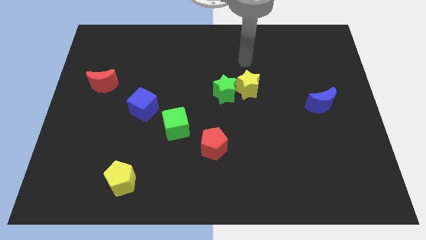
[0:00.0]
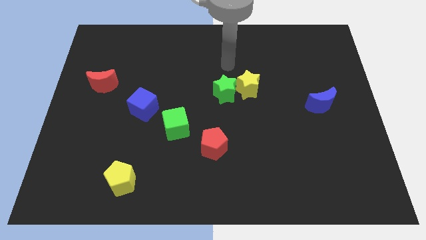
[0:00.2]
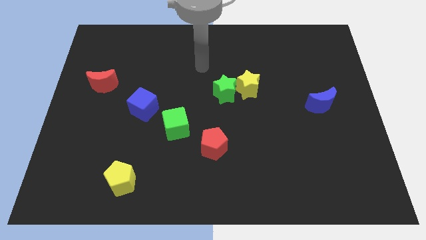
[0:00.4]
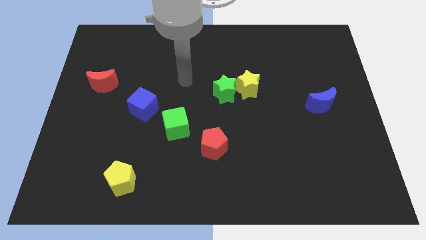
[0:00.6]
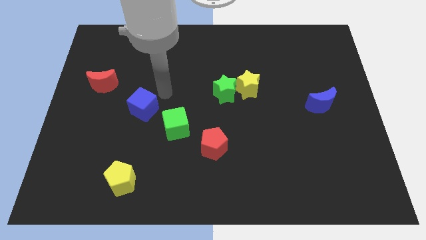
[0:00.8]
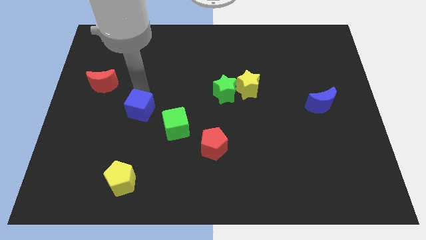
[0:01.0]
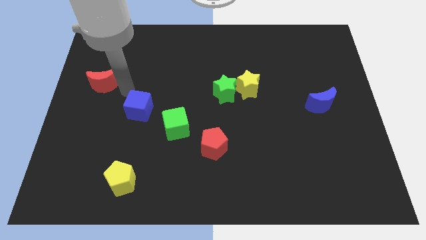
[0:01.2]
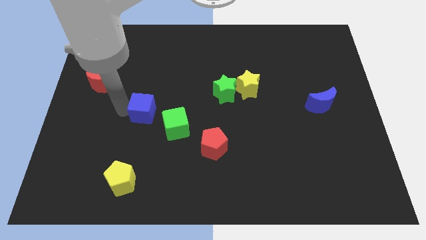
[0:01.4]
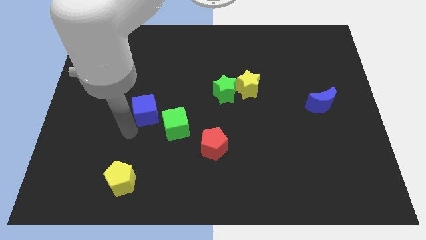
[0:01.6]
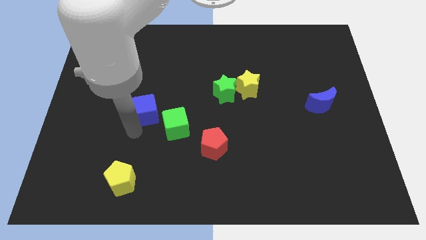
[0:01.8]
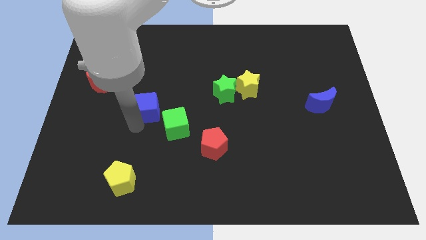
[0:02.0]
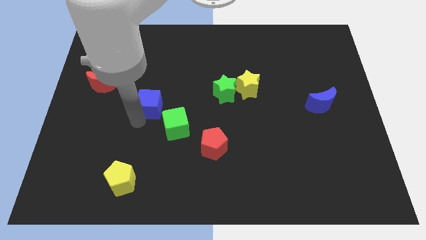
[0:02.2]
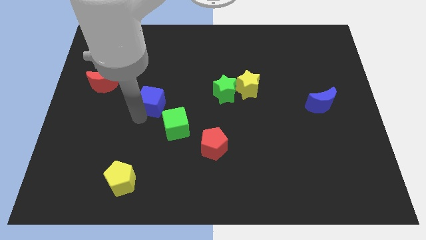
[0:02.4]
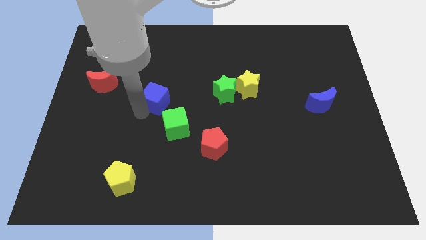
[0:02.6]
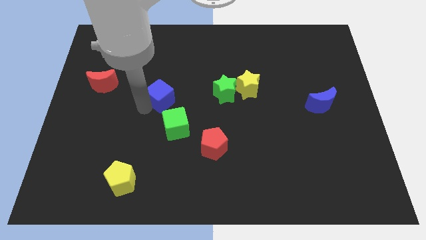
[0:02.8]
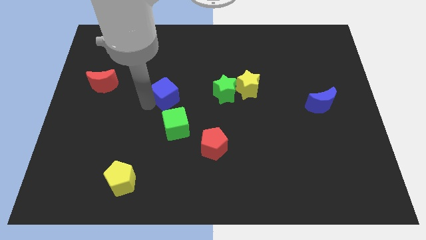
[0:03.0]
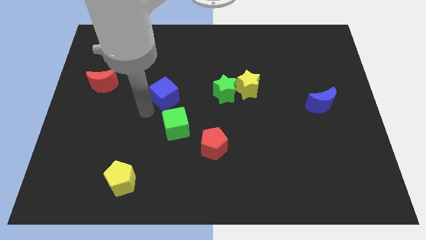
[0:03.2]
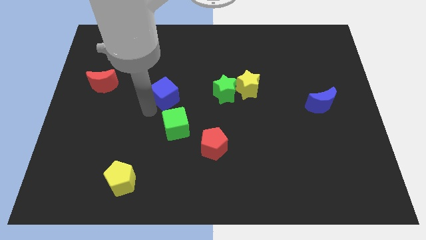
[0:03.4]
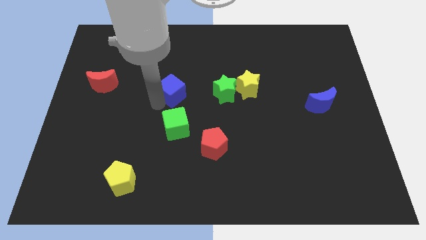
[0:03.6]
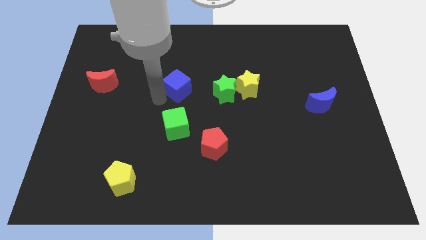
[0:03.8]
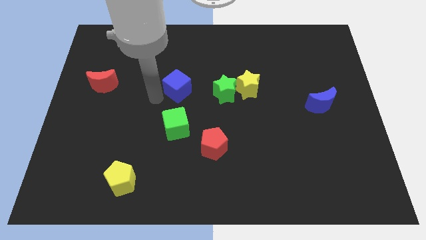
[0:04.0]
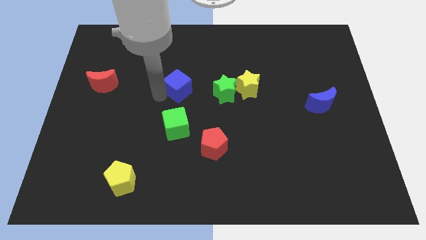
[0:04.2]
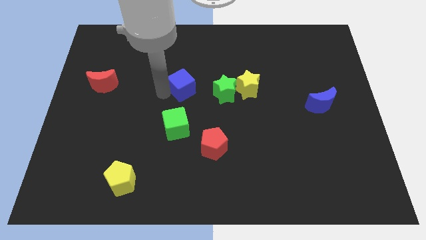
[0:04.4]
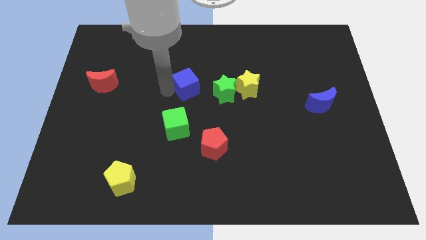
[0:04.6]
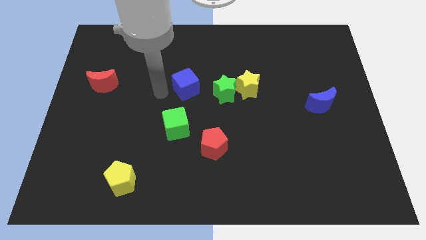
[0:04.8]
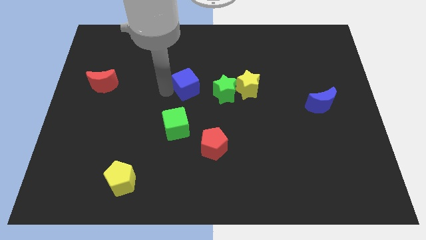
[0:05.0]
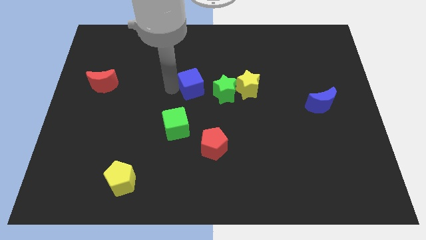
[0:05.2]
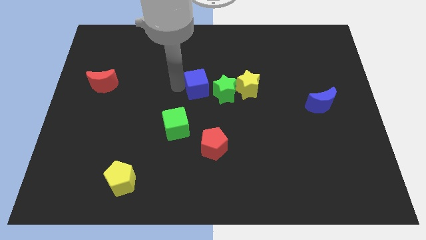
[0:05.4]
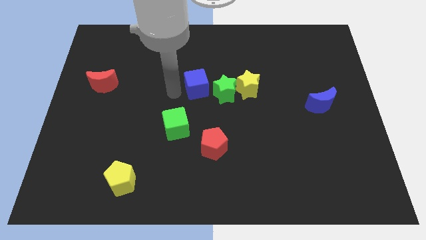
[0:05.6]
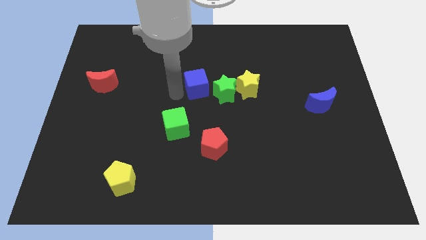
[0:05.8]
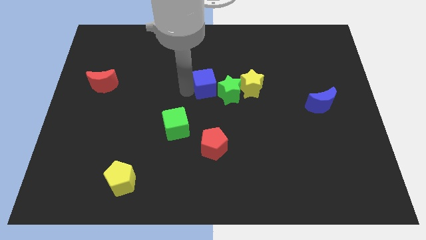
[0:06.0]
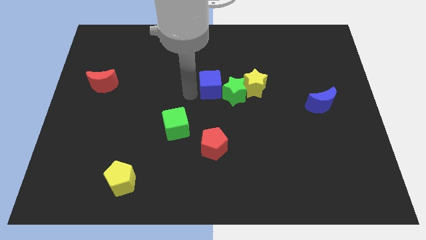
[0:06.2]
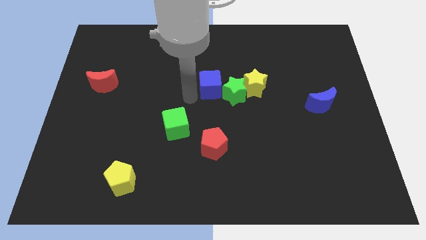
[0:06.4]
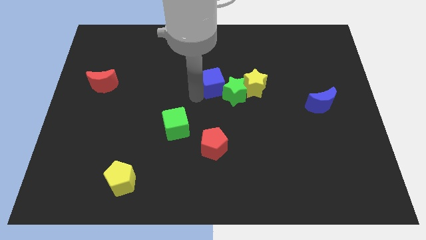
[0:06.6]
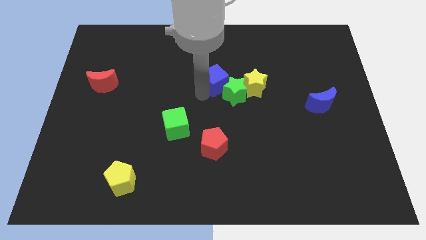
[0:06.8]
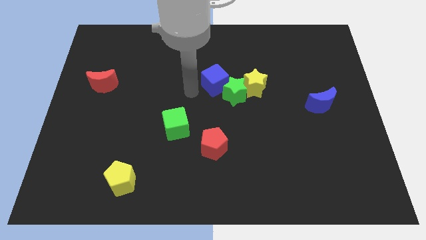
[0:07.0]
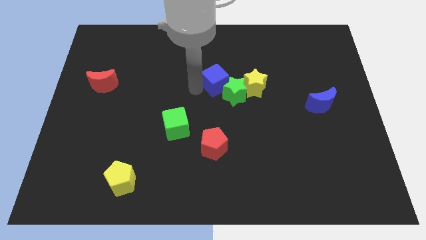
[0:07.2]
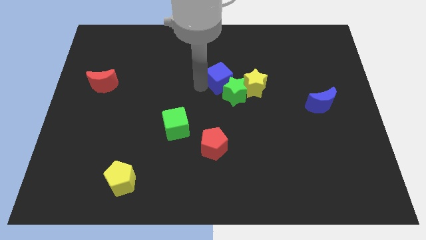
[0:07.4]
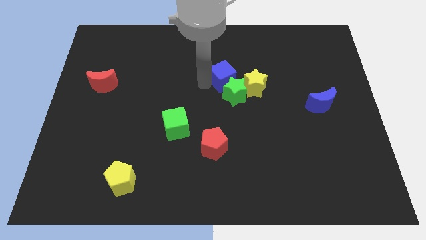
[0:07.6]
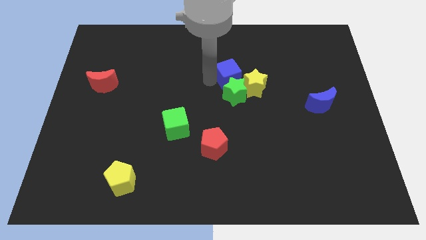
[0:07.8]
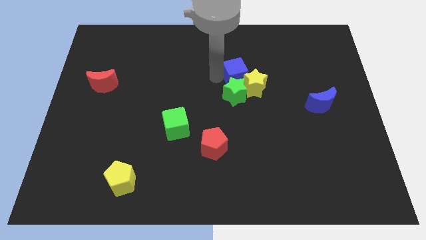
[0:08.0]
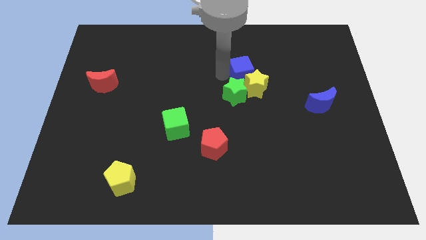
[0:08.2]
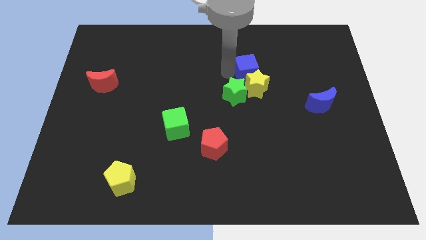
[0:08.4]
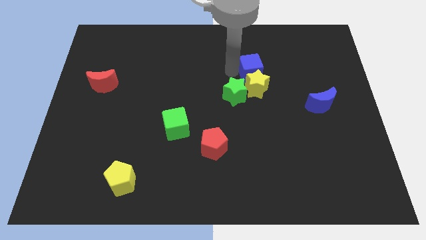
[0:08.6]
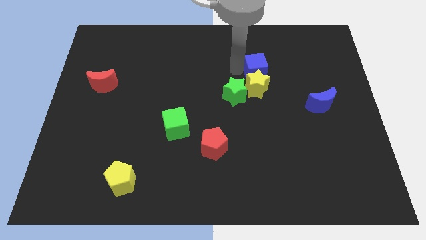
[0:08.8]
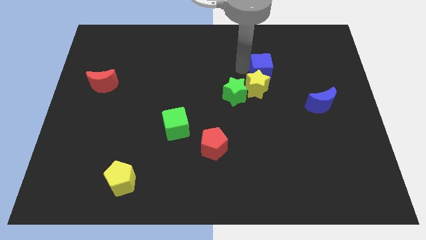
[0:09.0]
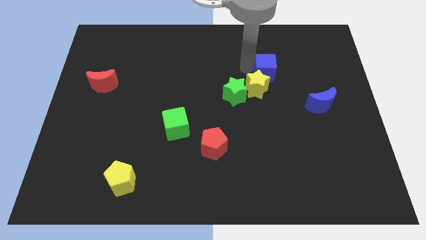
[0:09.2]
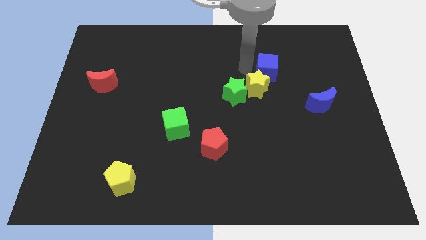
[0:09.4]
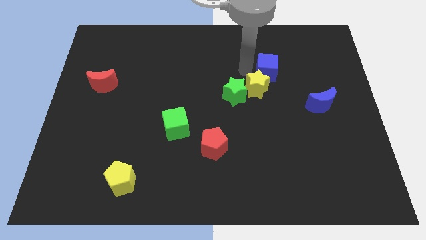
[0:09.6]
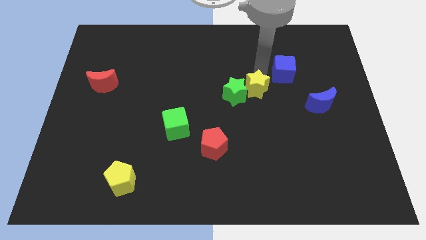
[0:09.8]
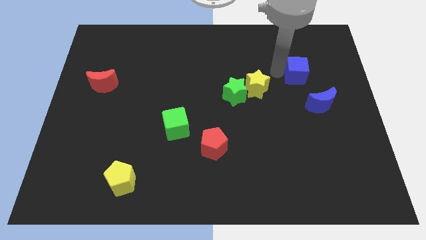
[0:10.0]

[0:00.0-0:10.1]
slide the blue cube to the top side of the blue moon

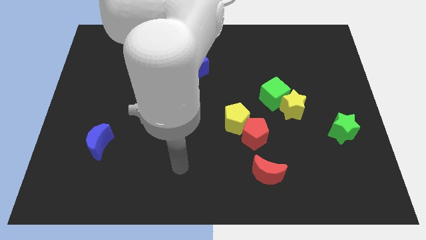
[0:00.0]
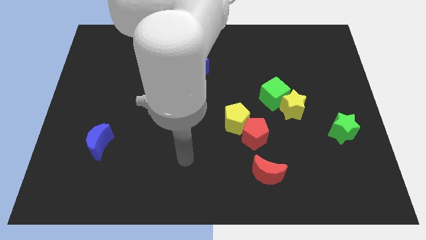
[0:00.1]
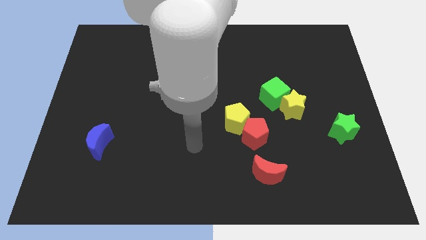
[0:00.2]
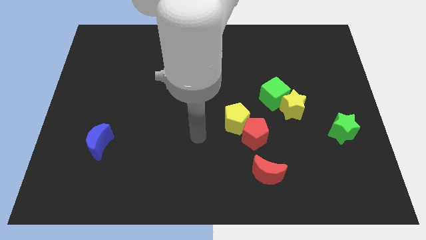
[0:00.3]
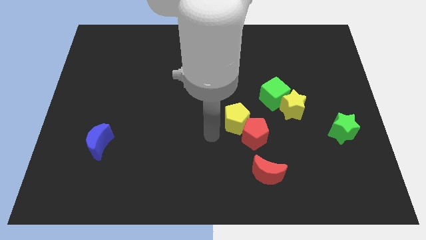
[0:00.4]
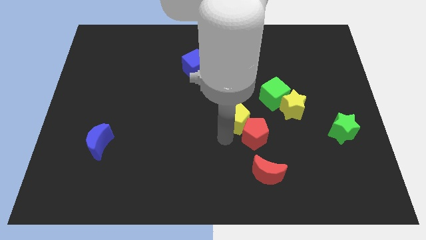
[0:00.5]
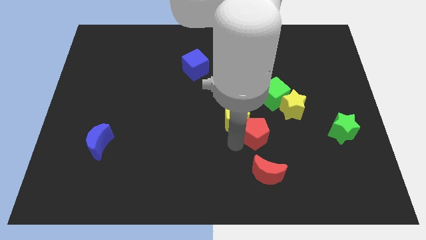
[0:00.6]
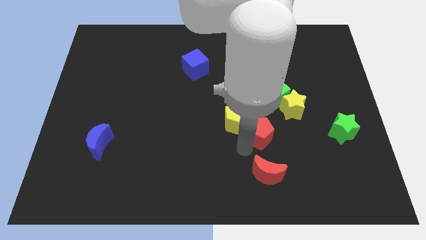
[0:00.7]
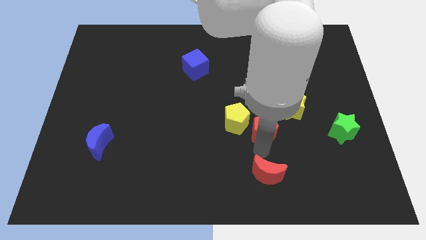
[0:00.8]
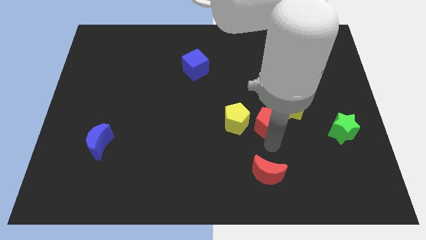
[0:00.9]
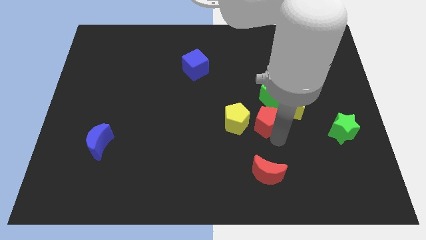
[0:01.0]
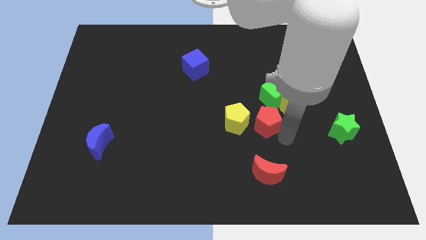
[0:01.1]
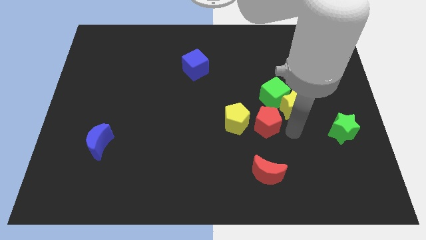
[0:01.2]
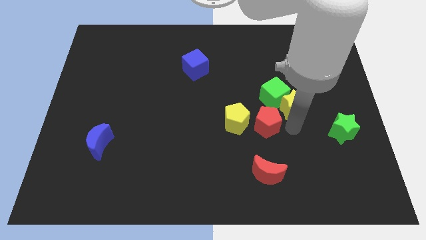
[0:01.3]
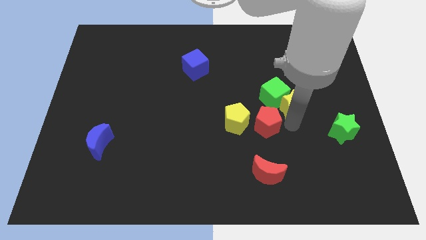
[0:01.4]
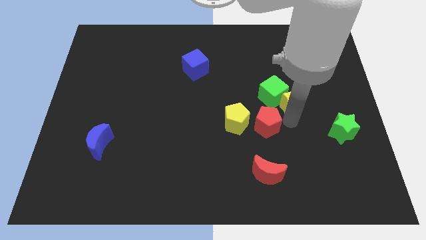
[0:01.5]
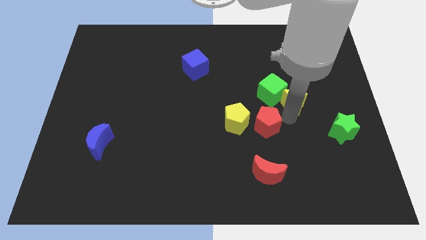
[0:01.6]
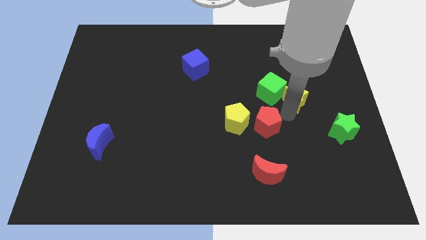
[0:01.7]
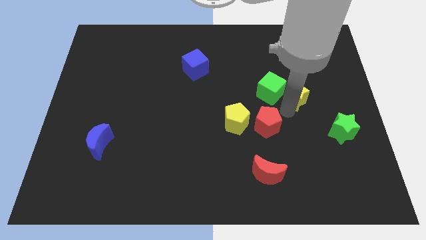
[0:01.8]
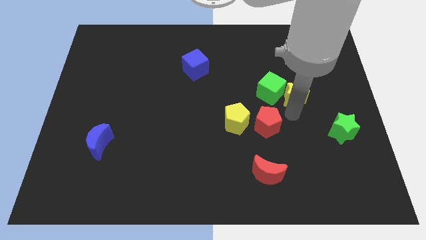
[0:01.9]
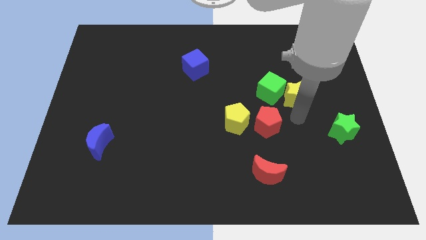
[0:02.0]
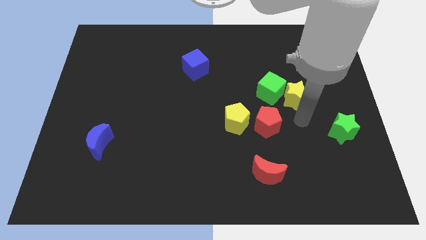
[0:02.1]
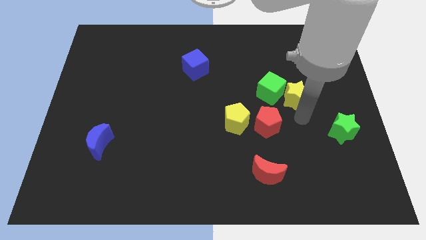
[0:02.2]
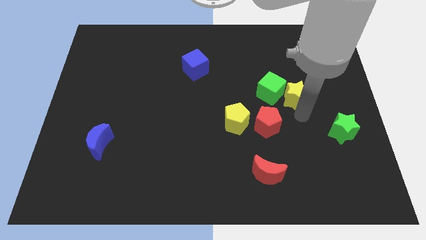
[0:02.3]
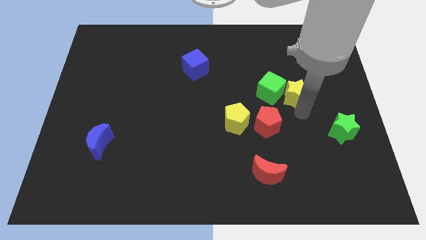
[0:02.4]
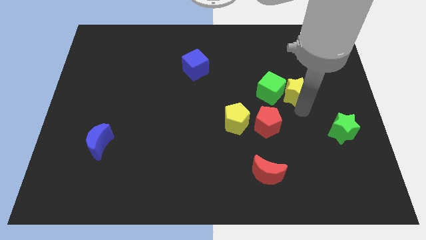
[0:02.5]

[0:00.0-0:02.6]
push the yellow star diagonally up and to the right of the green cube
